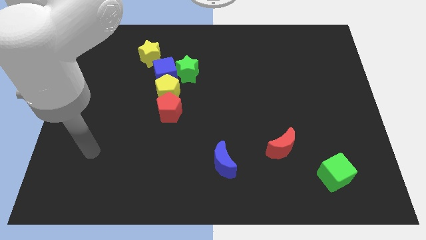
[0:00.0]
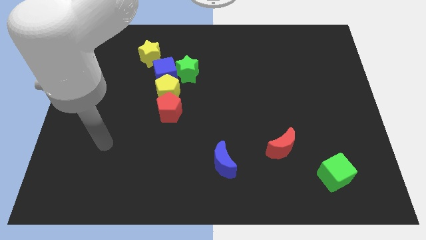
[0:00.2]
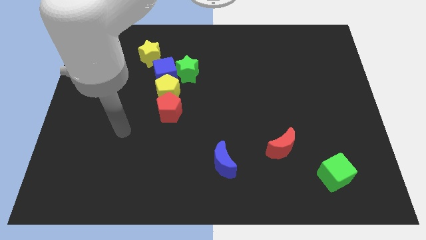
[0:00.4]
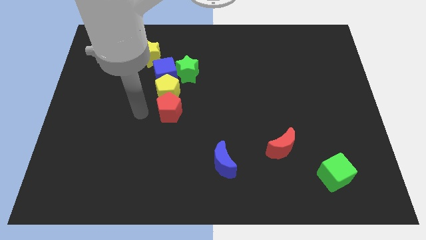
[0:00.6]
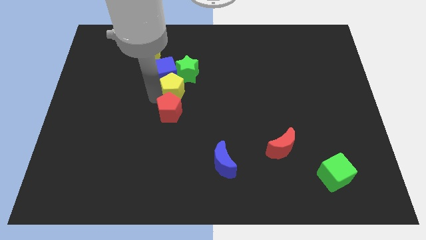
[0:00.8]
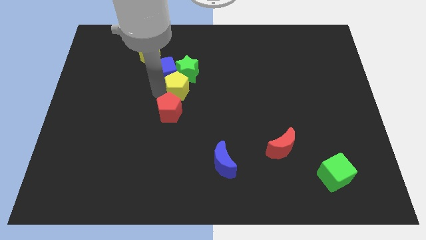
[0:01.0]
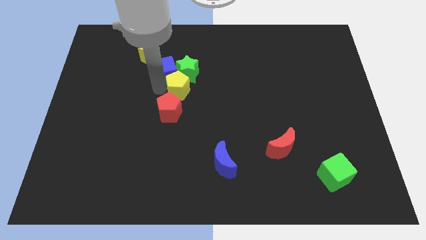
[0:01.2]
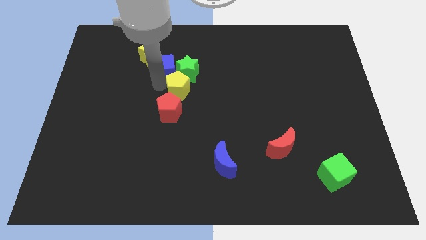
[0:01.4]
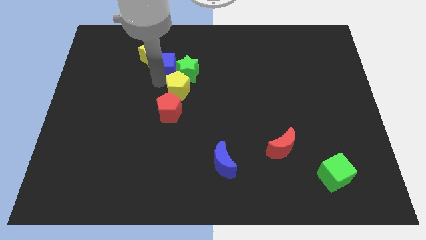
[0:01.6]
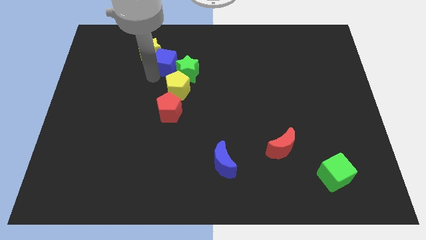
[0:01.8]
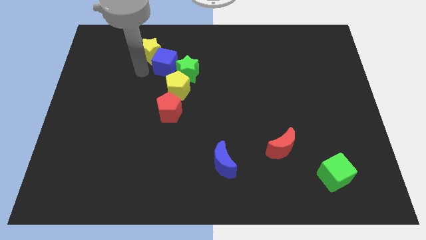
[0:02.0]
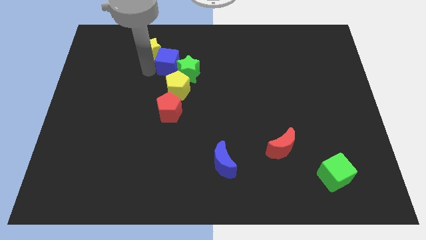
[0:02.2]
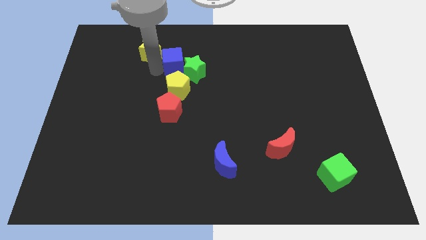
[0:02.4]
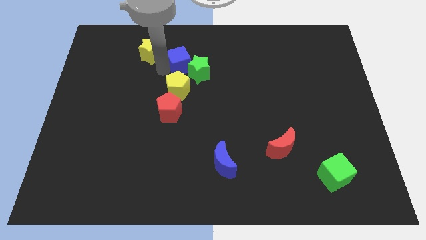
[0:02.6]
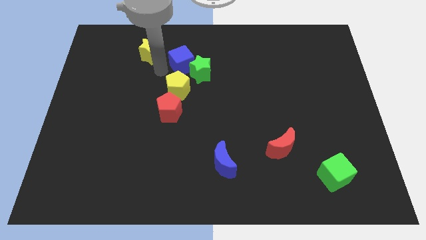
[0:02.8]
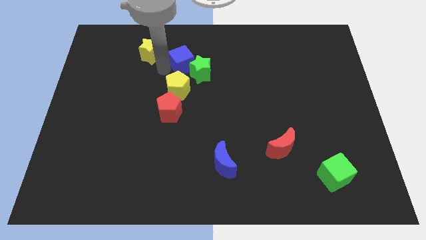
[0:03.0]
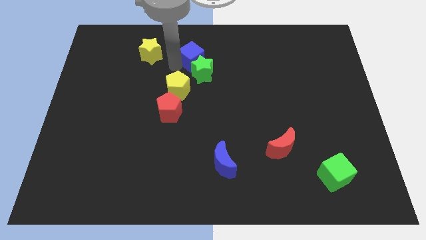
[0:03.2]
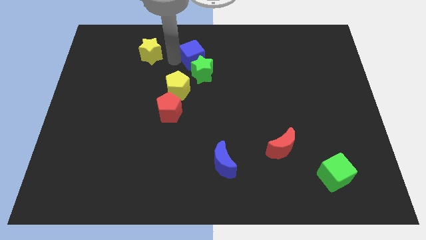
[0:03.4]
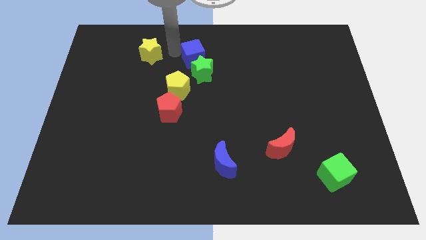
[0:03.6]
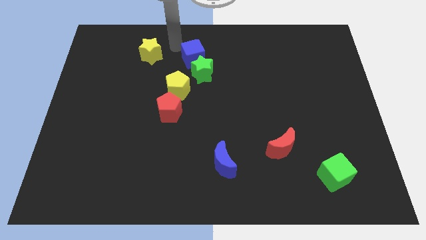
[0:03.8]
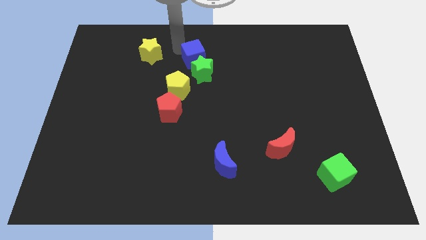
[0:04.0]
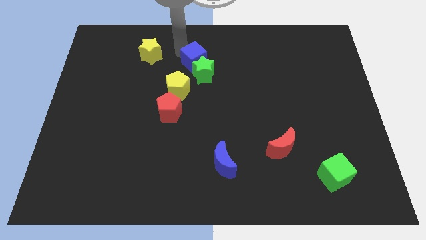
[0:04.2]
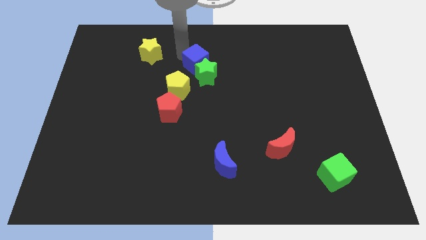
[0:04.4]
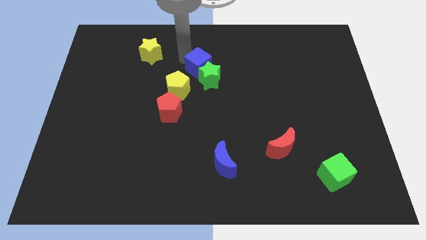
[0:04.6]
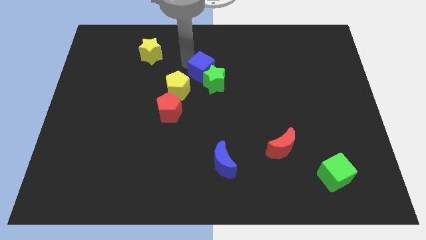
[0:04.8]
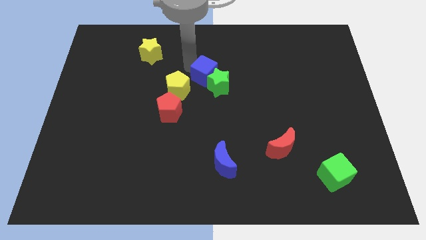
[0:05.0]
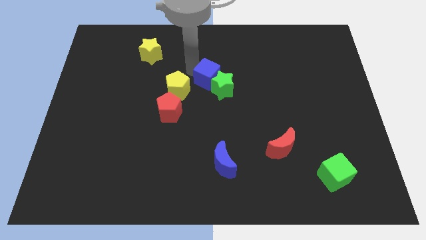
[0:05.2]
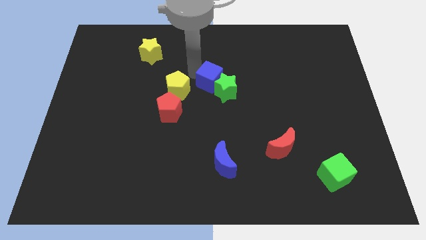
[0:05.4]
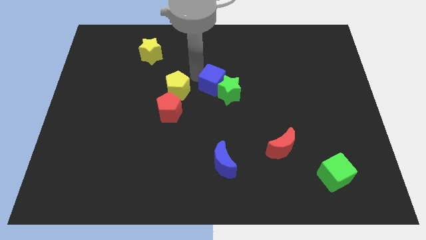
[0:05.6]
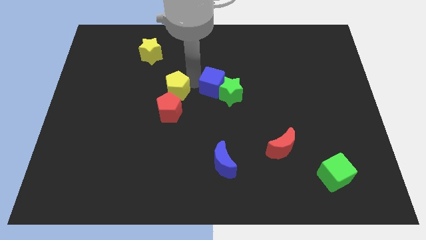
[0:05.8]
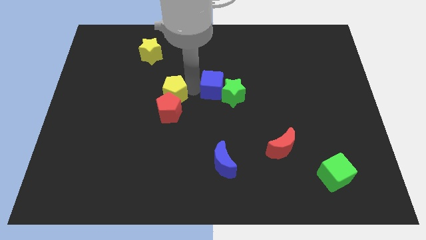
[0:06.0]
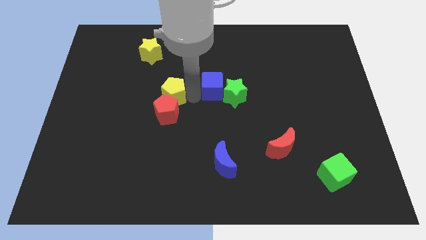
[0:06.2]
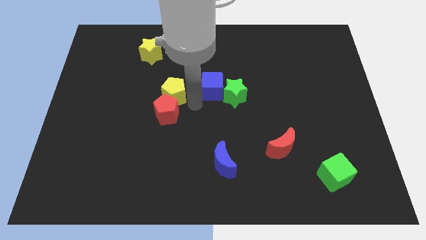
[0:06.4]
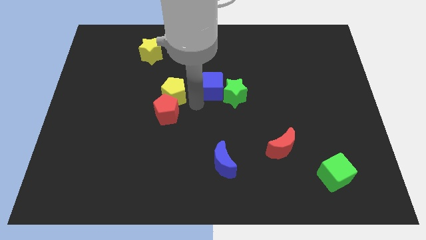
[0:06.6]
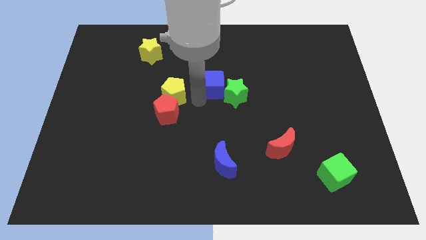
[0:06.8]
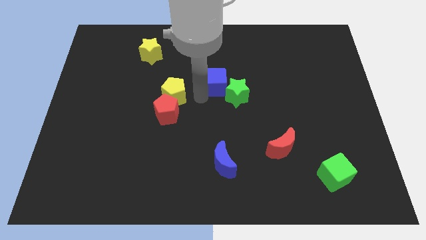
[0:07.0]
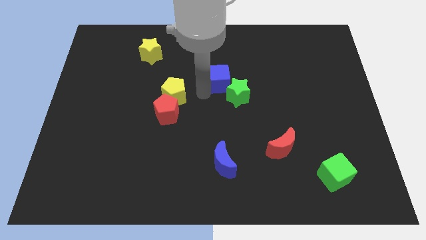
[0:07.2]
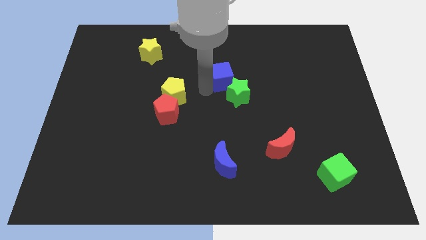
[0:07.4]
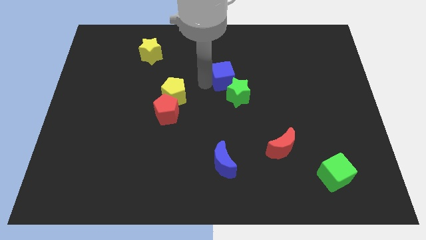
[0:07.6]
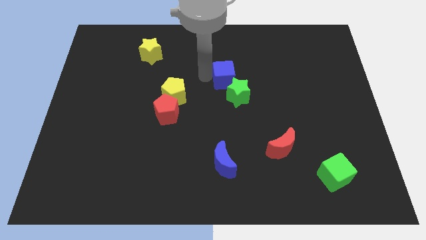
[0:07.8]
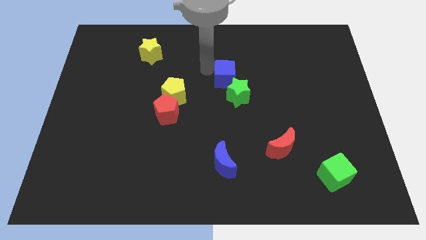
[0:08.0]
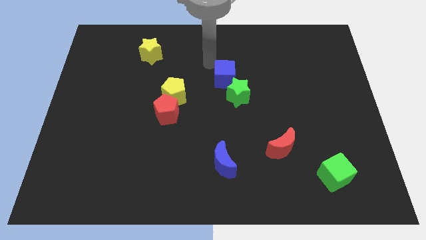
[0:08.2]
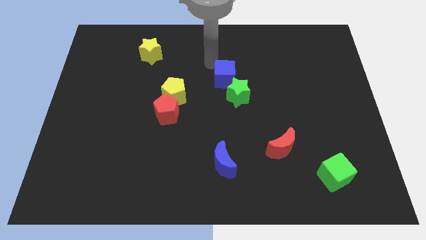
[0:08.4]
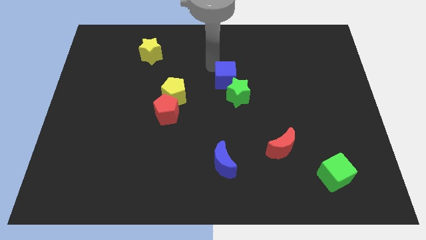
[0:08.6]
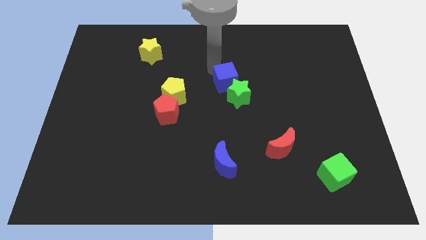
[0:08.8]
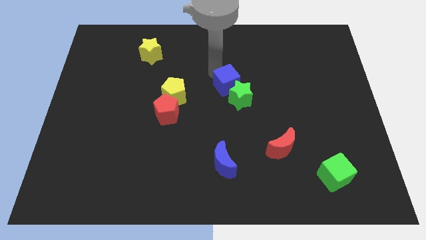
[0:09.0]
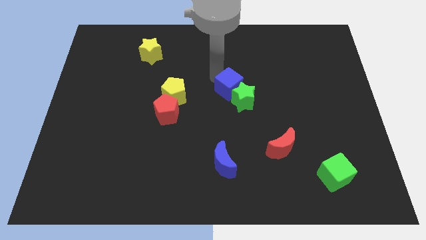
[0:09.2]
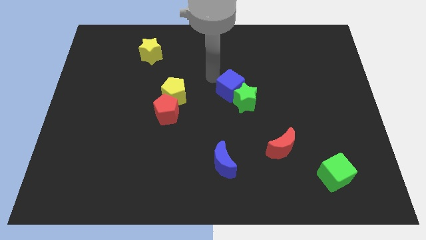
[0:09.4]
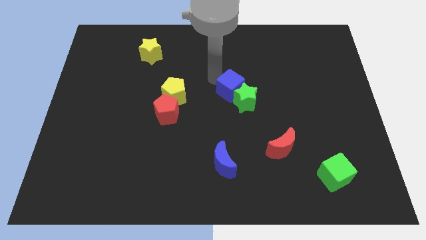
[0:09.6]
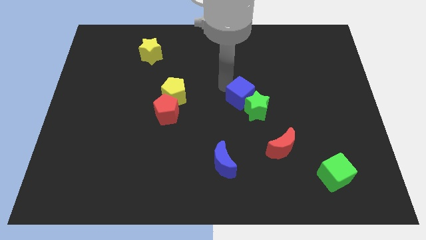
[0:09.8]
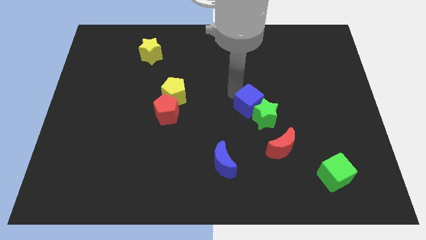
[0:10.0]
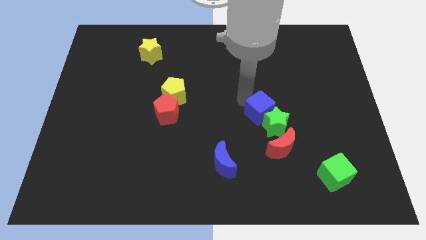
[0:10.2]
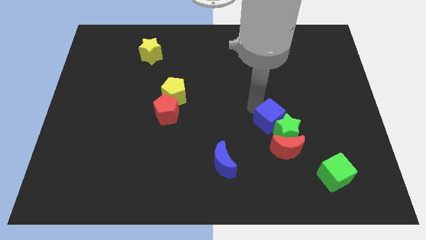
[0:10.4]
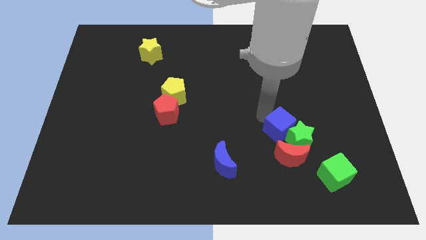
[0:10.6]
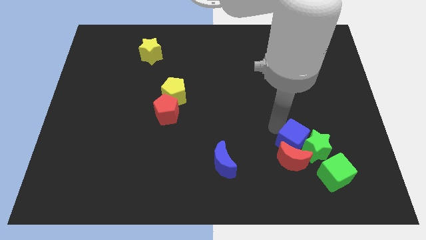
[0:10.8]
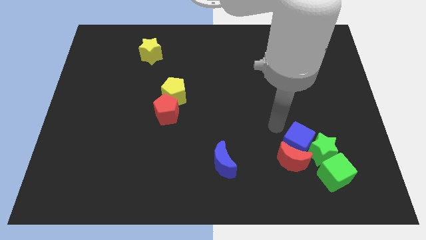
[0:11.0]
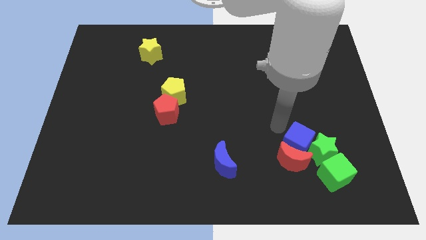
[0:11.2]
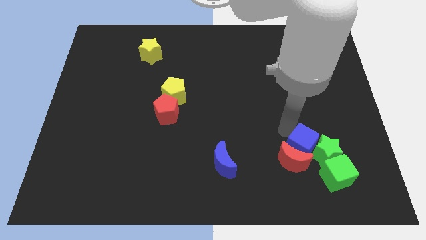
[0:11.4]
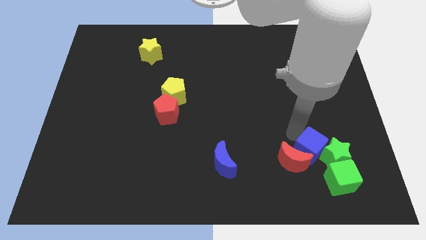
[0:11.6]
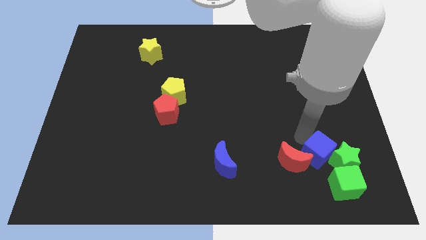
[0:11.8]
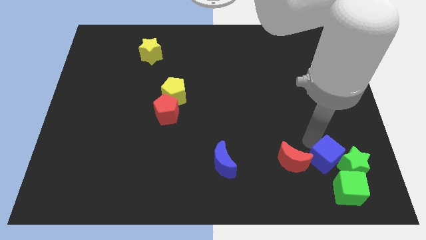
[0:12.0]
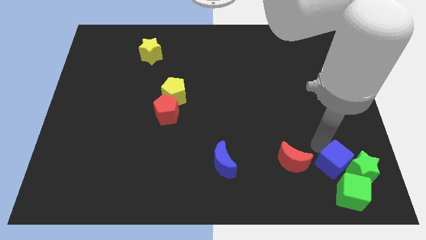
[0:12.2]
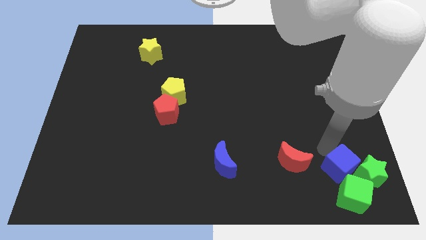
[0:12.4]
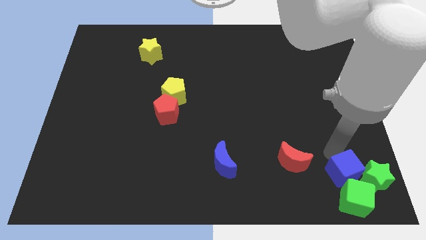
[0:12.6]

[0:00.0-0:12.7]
move the blue cube towards the green cube
